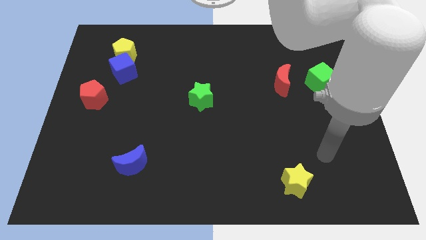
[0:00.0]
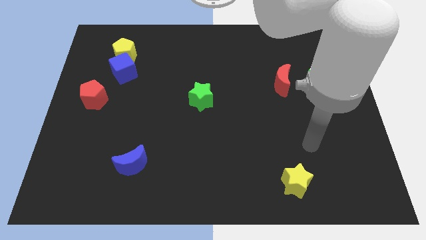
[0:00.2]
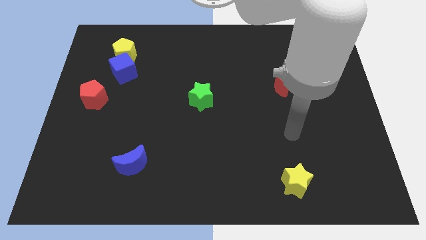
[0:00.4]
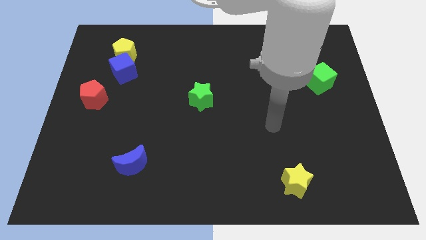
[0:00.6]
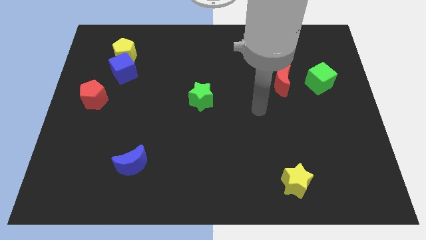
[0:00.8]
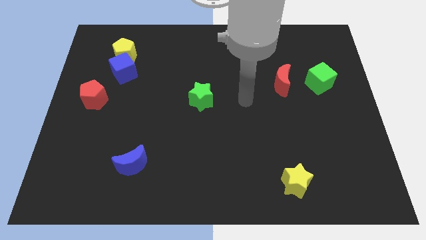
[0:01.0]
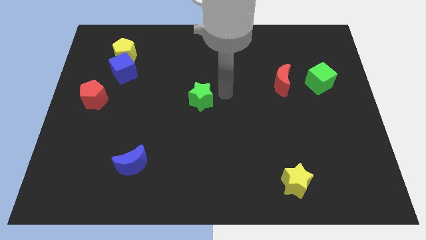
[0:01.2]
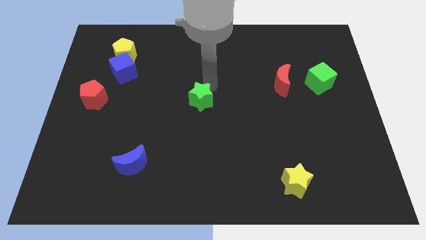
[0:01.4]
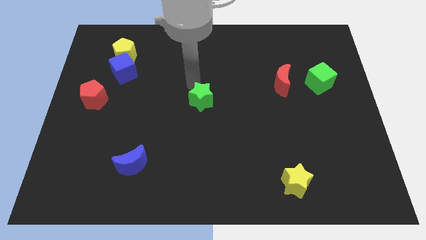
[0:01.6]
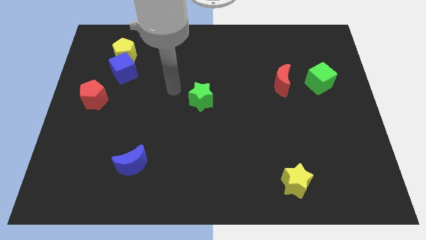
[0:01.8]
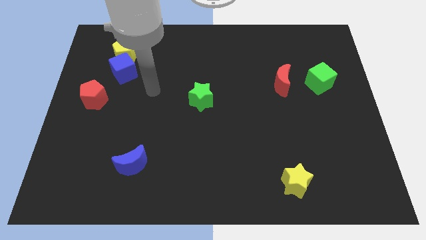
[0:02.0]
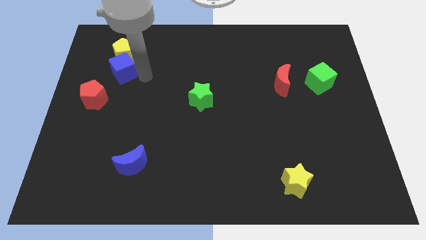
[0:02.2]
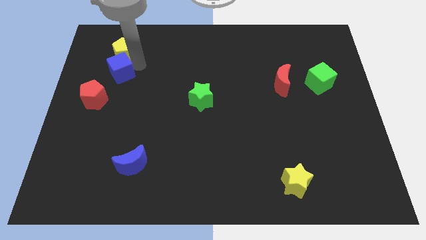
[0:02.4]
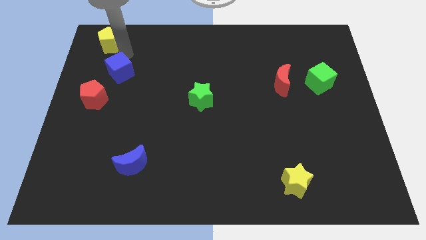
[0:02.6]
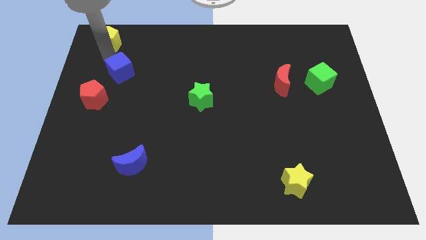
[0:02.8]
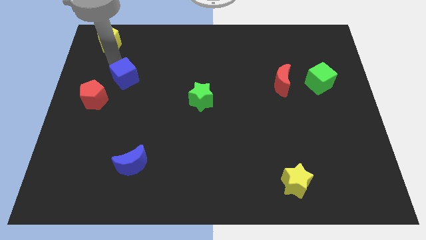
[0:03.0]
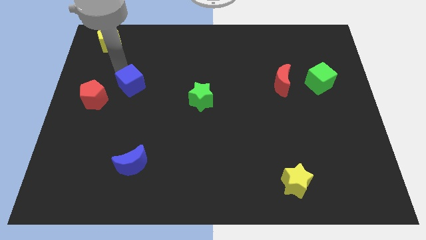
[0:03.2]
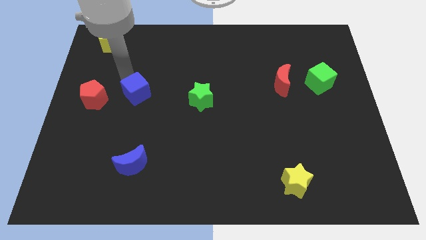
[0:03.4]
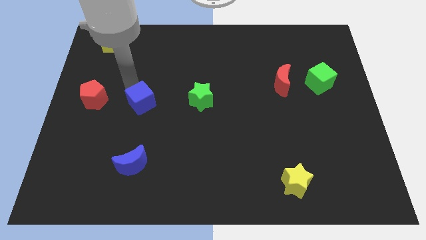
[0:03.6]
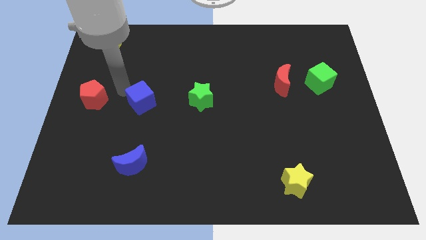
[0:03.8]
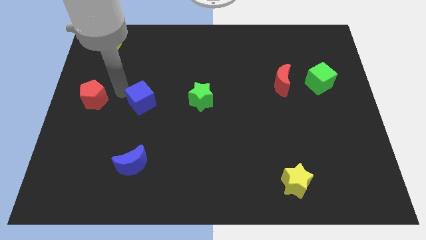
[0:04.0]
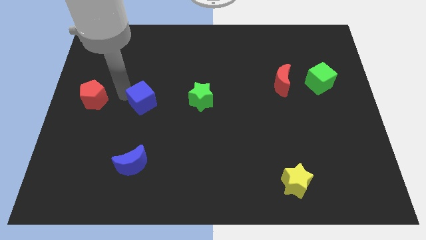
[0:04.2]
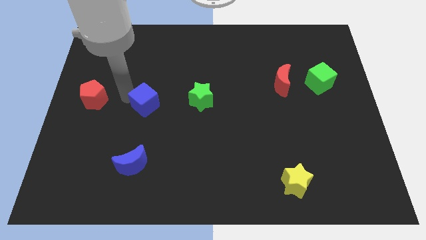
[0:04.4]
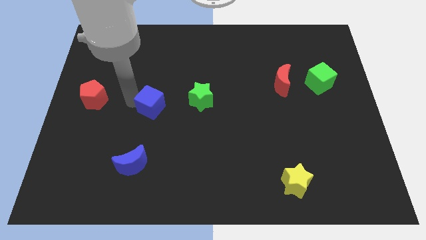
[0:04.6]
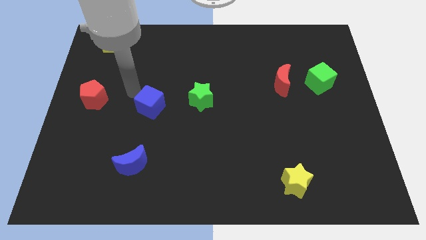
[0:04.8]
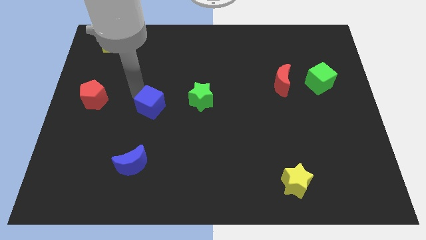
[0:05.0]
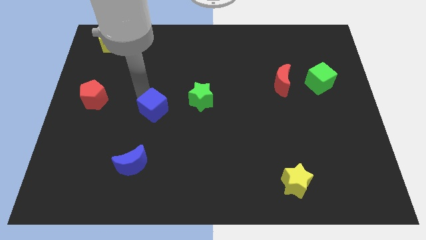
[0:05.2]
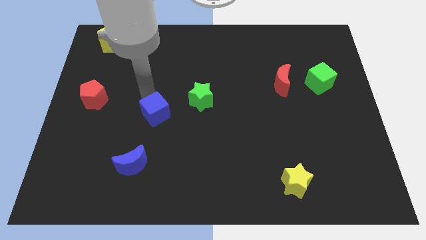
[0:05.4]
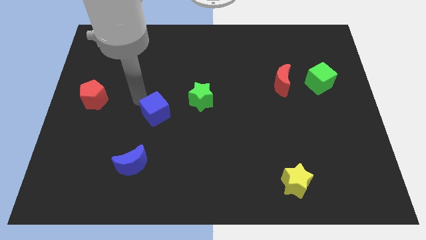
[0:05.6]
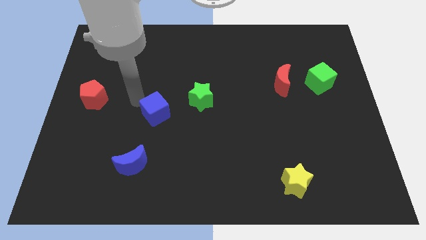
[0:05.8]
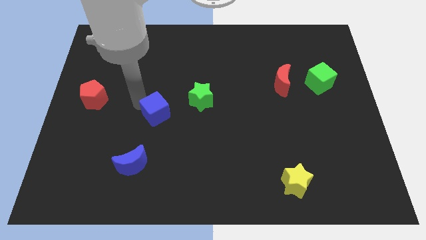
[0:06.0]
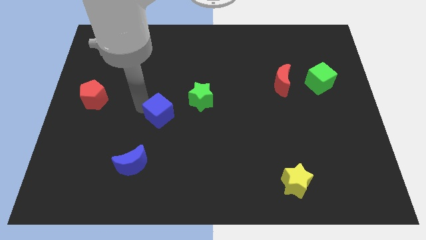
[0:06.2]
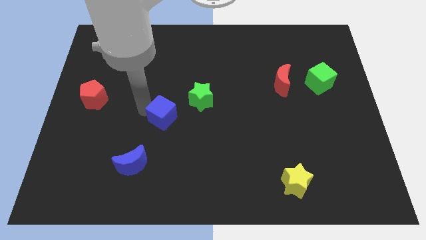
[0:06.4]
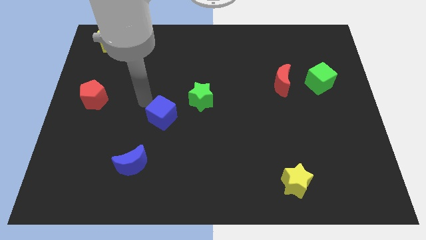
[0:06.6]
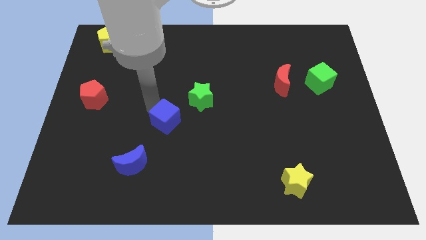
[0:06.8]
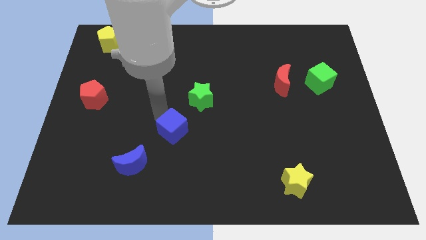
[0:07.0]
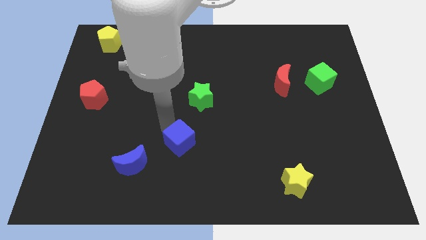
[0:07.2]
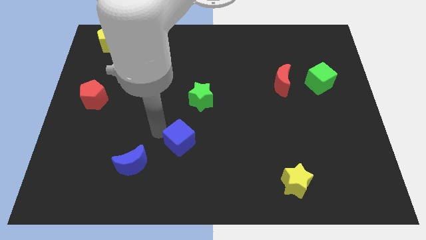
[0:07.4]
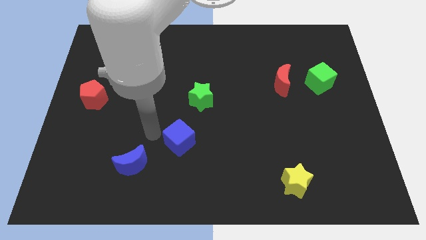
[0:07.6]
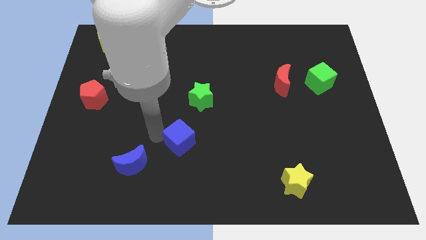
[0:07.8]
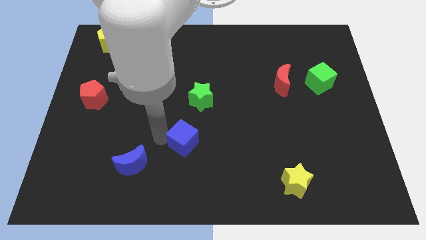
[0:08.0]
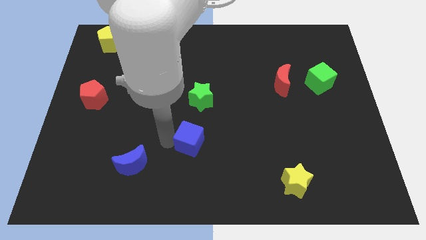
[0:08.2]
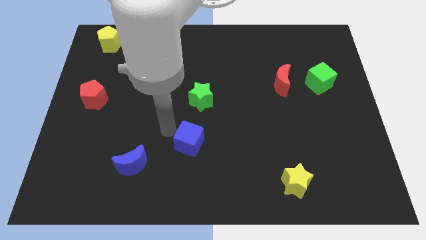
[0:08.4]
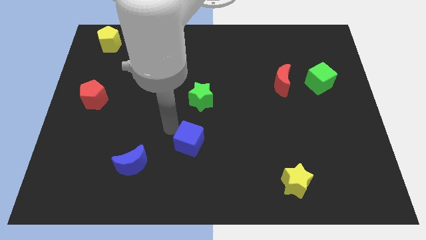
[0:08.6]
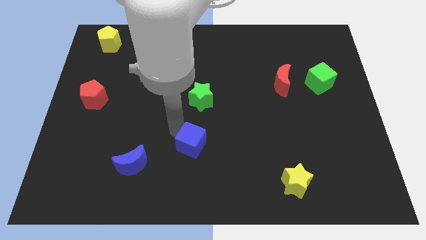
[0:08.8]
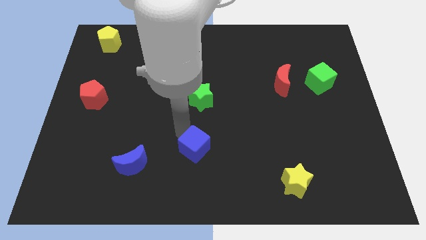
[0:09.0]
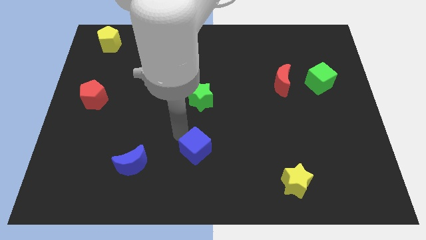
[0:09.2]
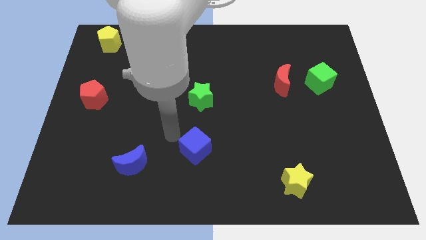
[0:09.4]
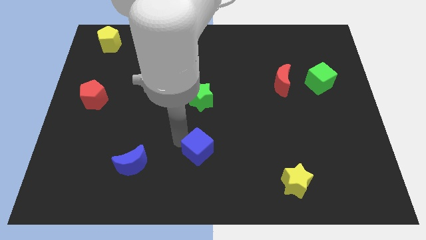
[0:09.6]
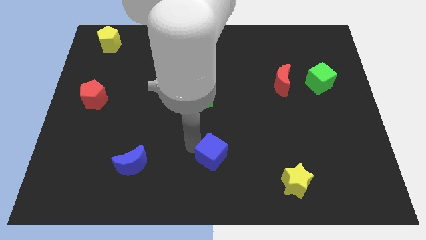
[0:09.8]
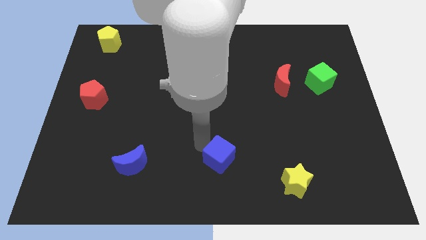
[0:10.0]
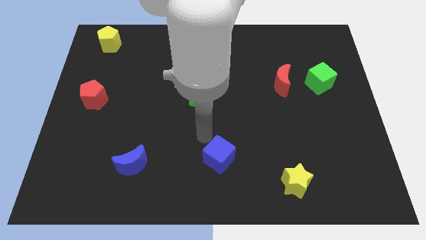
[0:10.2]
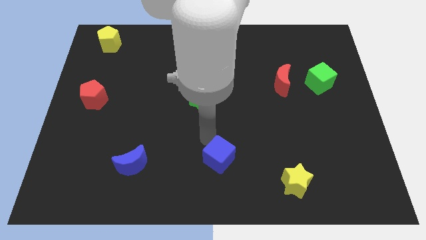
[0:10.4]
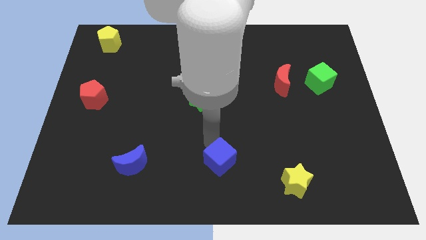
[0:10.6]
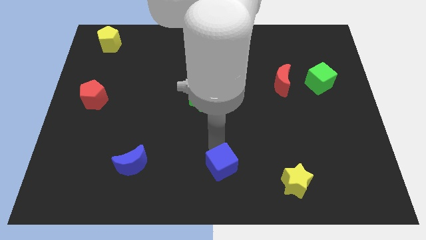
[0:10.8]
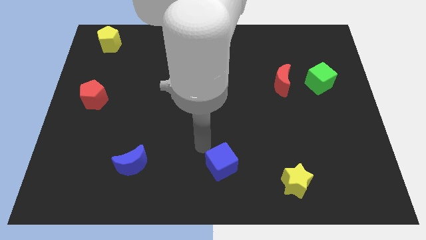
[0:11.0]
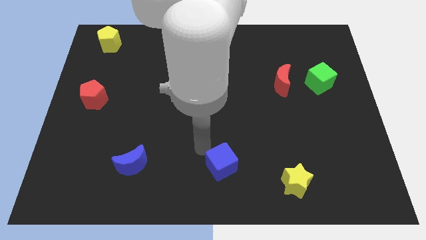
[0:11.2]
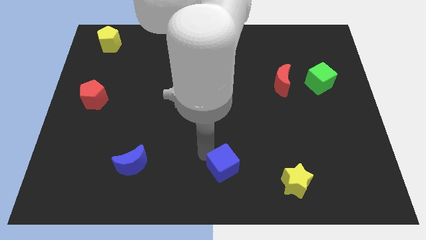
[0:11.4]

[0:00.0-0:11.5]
put the blue cube left of the yellow star
